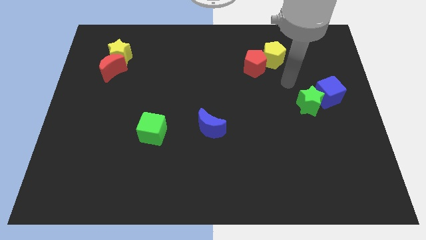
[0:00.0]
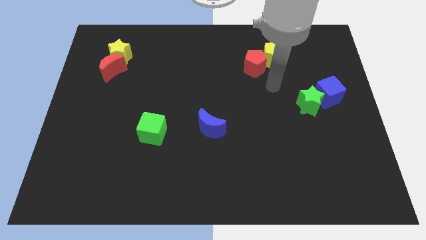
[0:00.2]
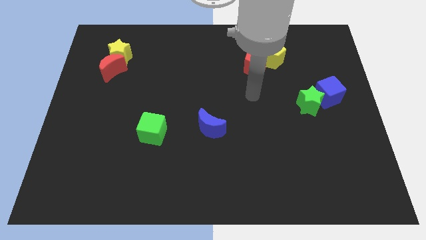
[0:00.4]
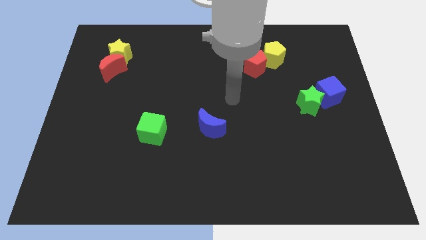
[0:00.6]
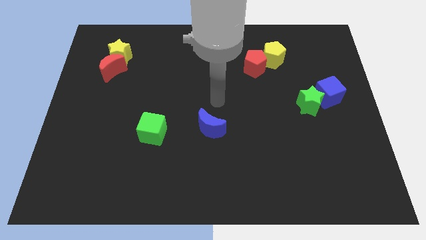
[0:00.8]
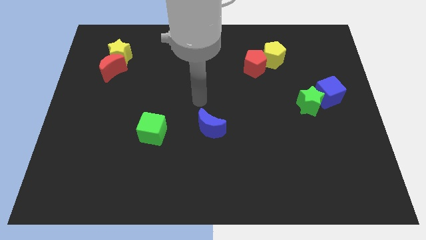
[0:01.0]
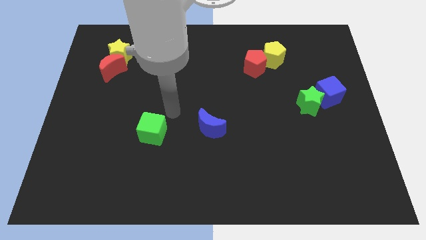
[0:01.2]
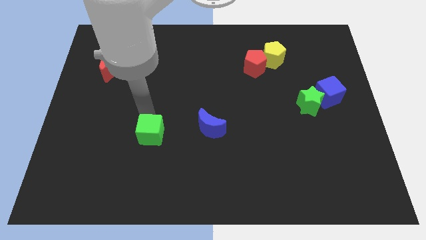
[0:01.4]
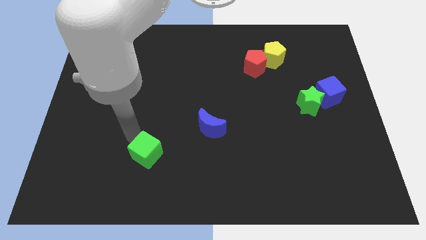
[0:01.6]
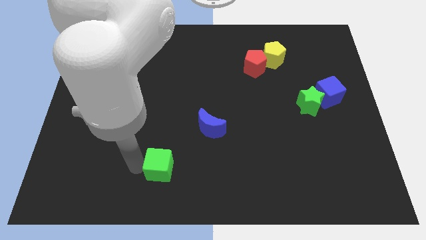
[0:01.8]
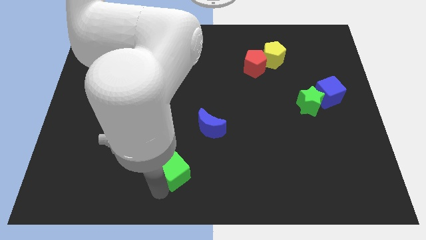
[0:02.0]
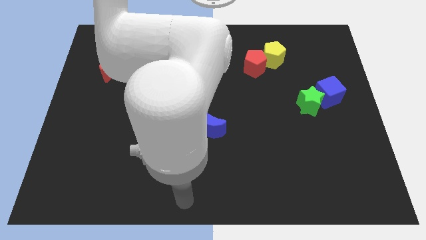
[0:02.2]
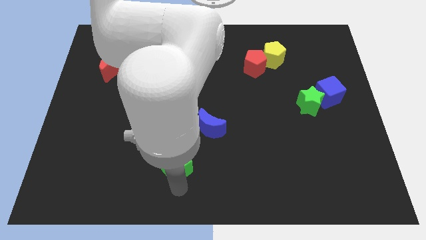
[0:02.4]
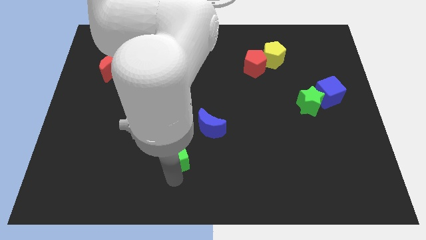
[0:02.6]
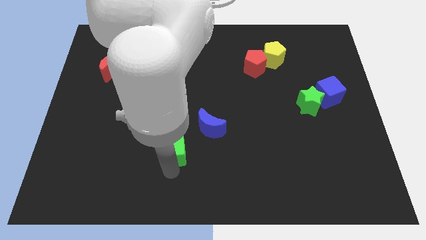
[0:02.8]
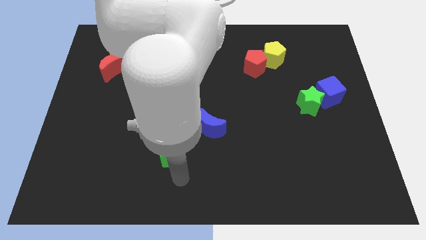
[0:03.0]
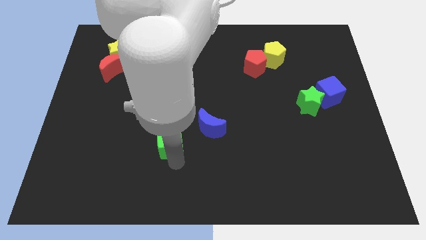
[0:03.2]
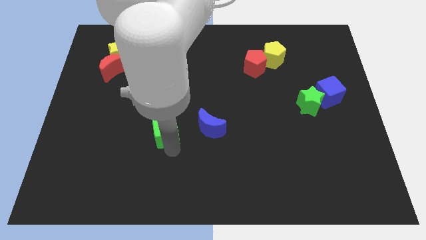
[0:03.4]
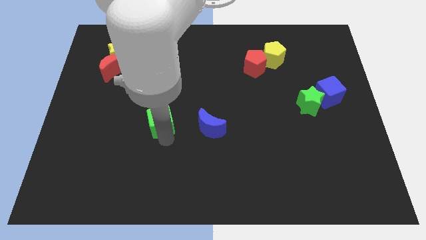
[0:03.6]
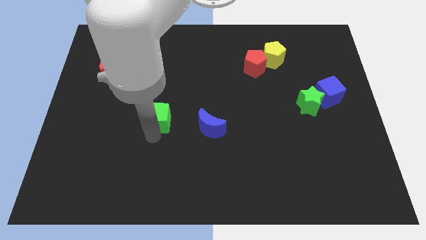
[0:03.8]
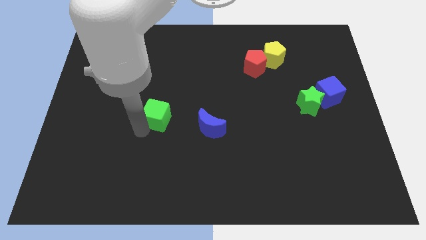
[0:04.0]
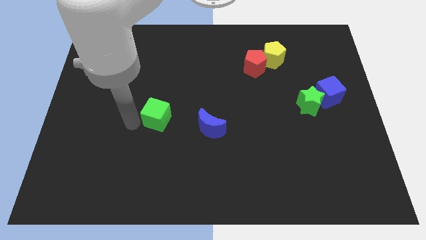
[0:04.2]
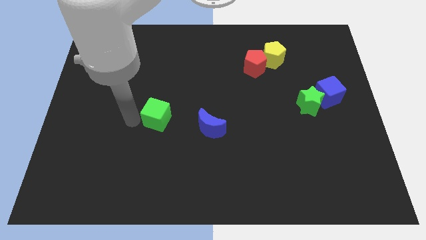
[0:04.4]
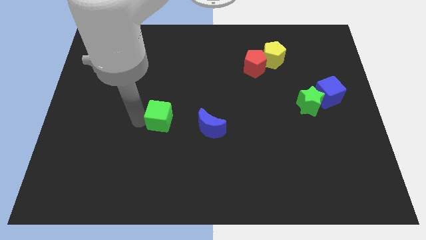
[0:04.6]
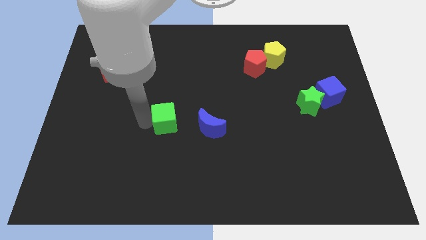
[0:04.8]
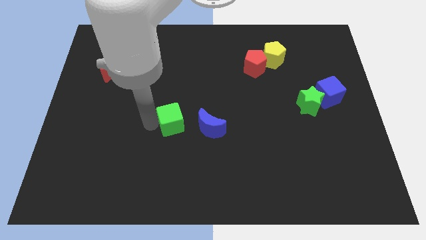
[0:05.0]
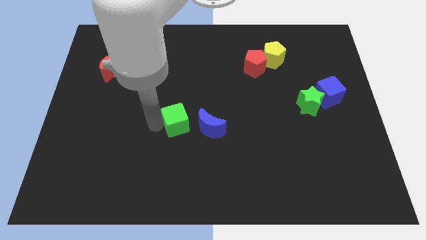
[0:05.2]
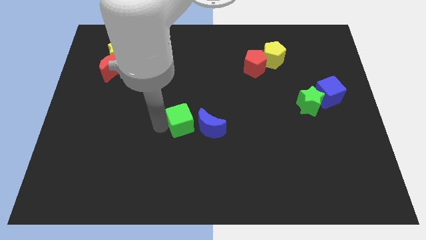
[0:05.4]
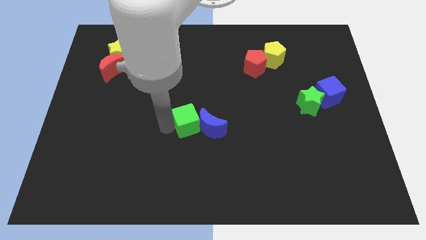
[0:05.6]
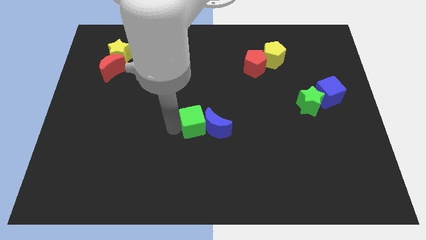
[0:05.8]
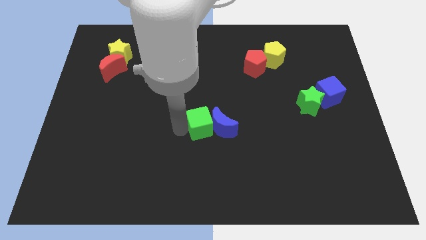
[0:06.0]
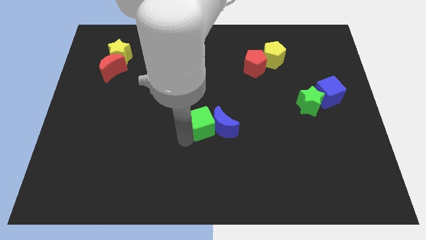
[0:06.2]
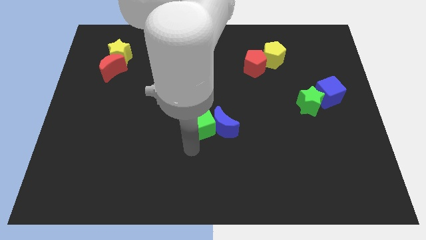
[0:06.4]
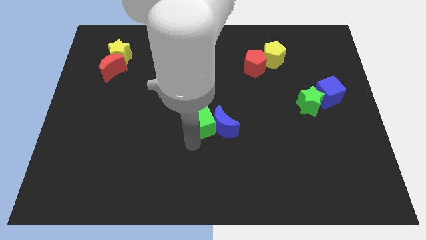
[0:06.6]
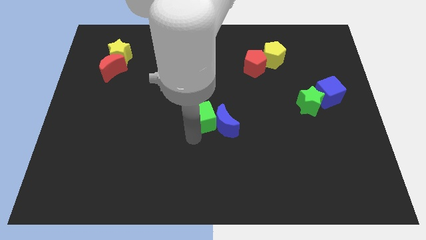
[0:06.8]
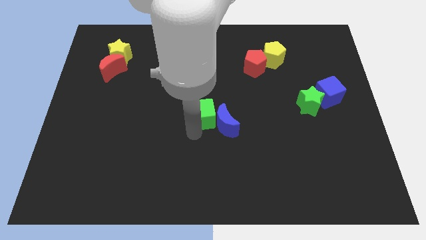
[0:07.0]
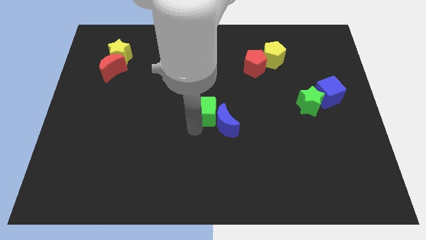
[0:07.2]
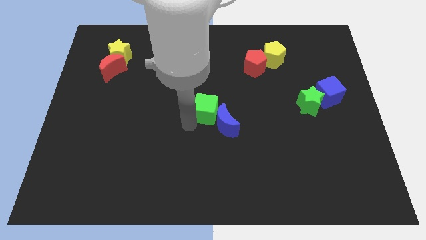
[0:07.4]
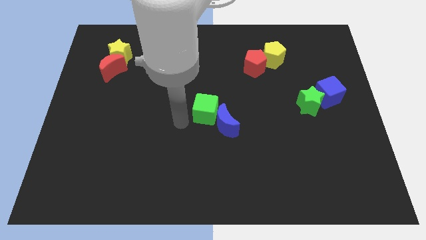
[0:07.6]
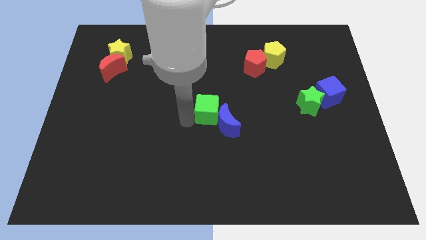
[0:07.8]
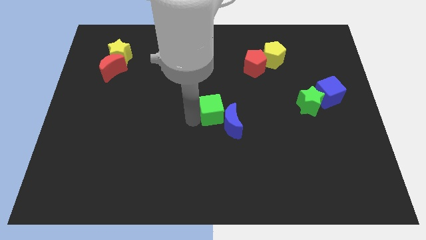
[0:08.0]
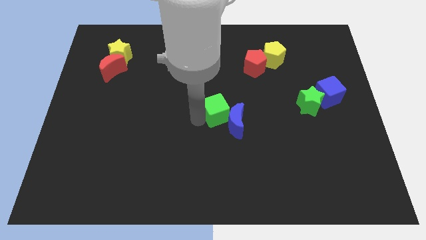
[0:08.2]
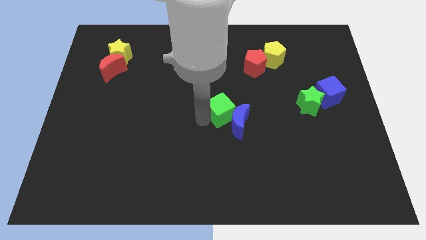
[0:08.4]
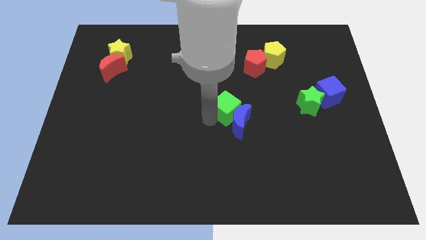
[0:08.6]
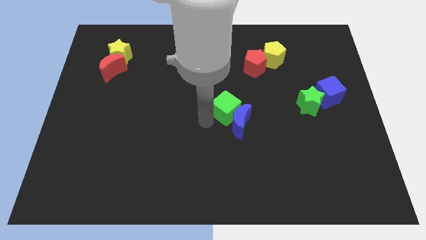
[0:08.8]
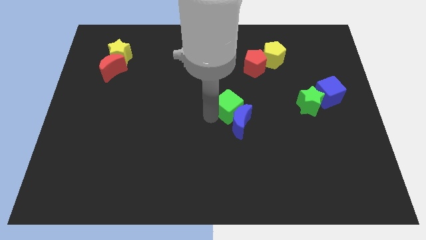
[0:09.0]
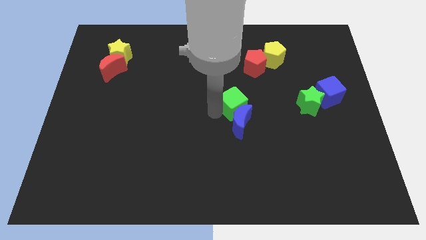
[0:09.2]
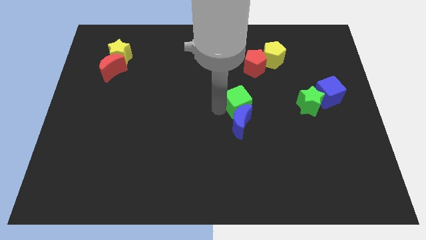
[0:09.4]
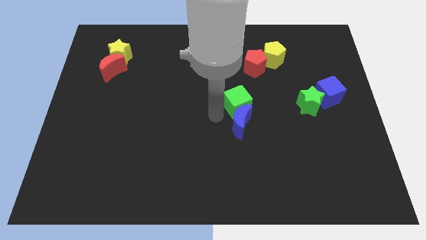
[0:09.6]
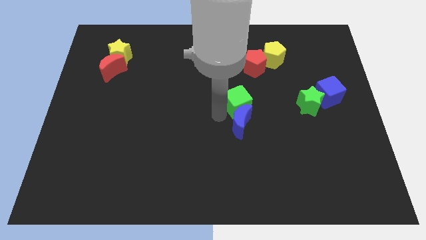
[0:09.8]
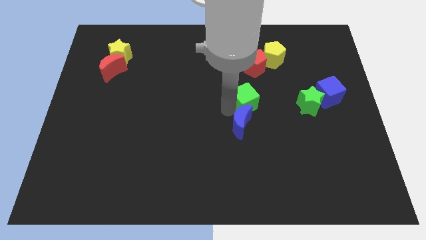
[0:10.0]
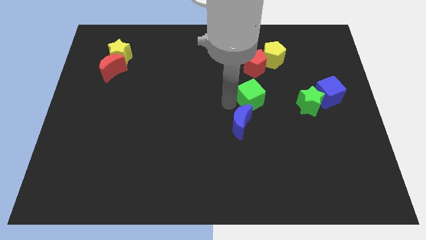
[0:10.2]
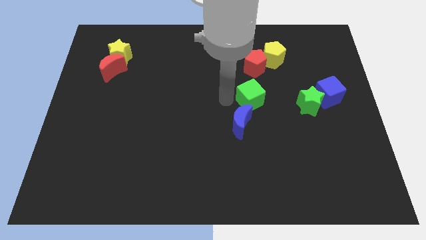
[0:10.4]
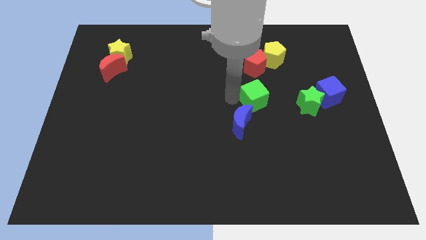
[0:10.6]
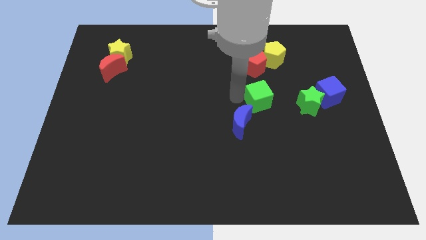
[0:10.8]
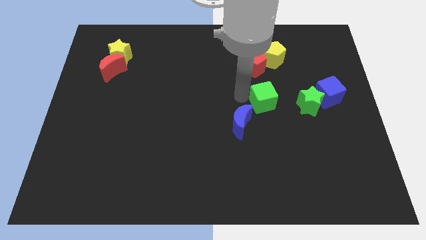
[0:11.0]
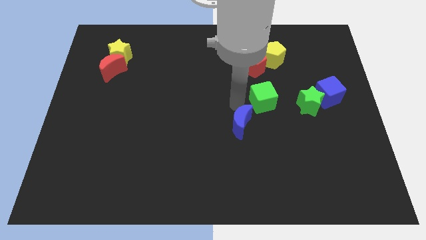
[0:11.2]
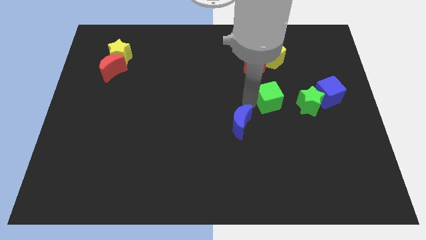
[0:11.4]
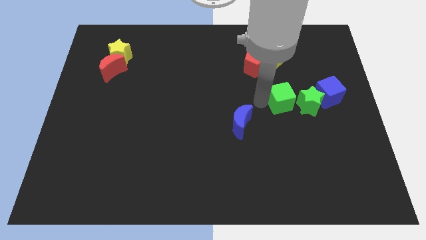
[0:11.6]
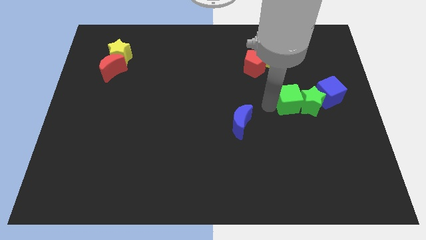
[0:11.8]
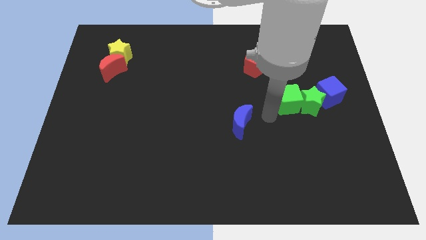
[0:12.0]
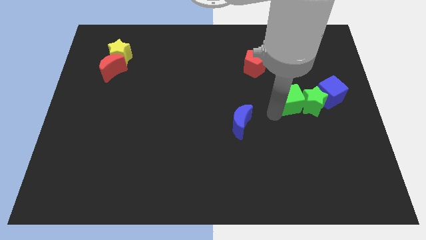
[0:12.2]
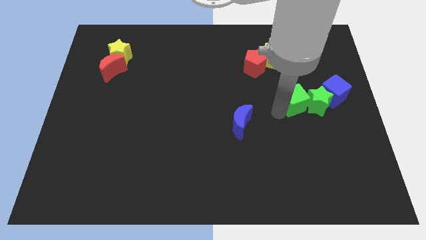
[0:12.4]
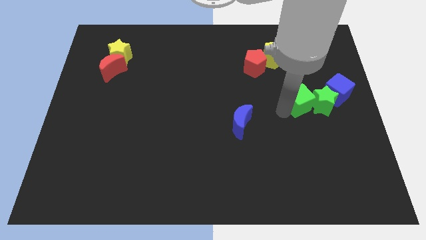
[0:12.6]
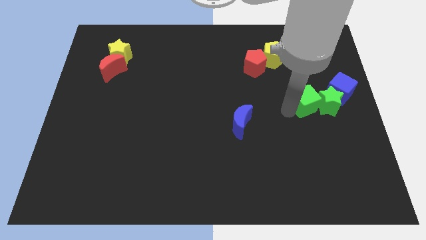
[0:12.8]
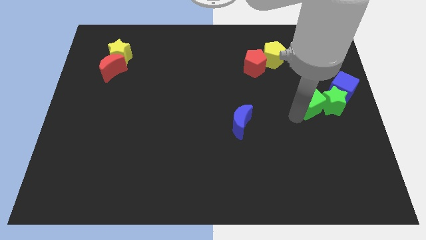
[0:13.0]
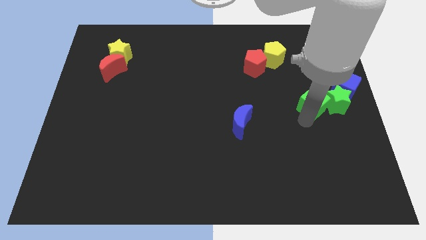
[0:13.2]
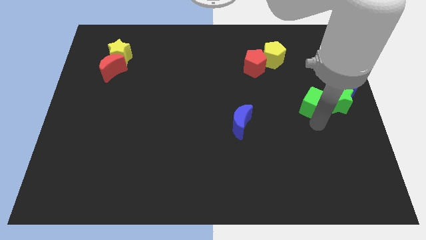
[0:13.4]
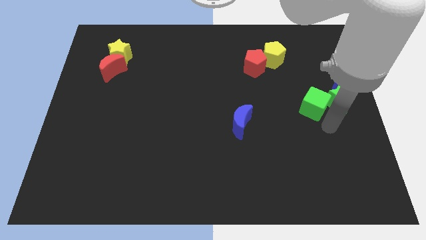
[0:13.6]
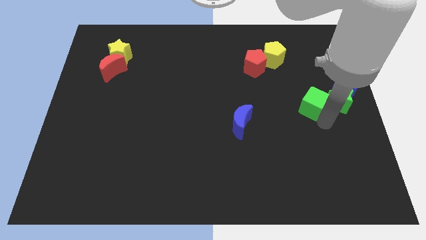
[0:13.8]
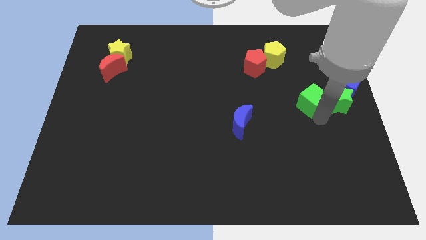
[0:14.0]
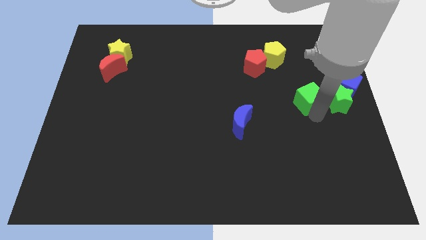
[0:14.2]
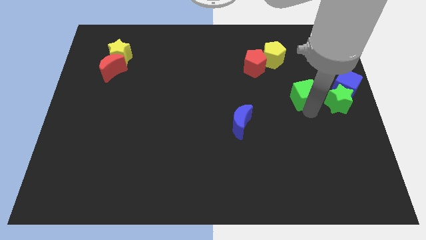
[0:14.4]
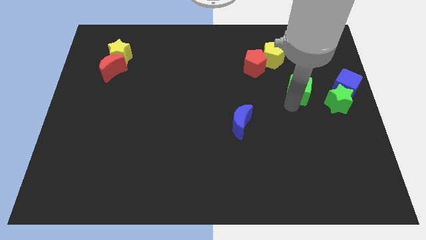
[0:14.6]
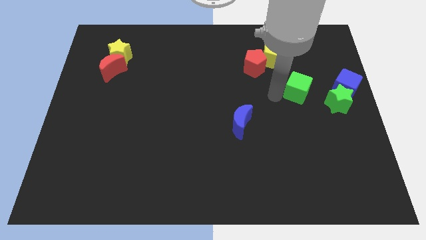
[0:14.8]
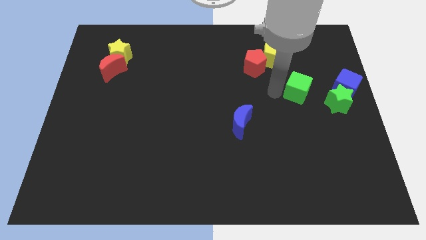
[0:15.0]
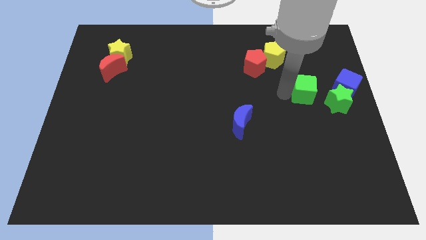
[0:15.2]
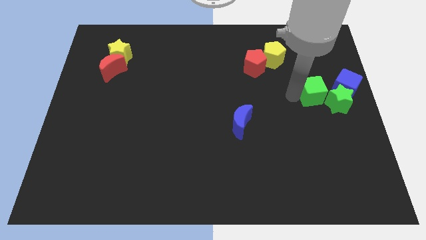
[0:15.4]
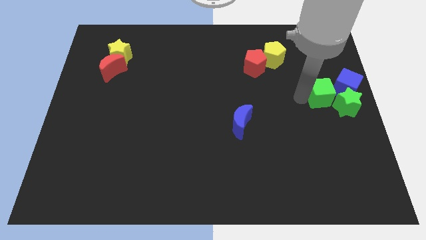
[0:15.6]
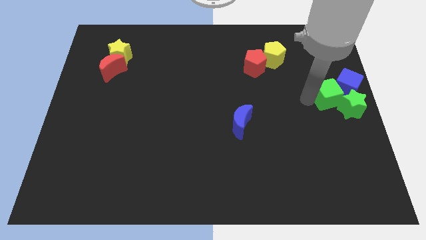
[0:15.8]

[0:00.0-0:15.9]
put the green cube close to the blue cube
